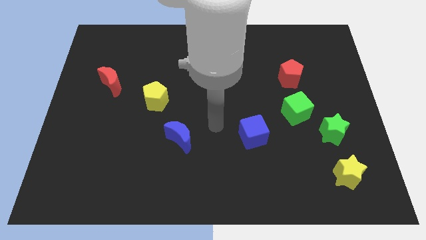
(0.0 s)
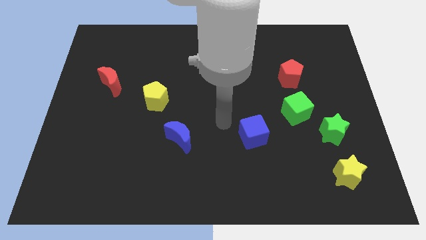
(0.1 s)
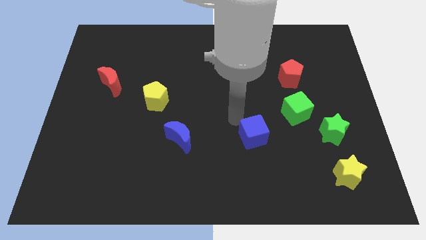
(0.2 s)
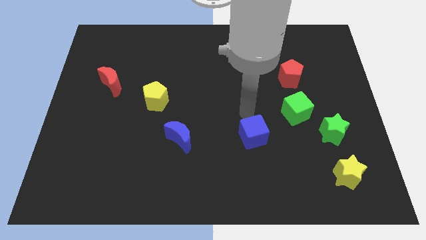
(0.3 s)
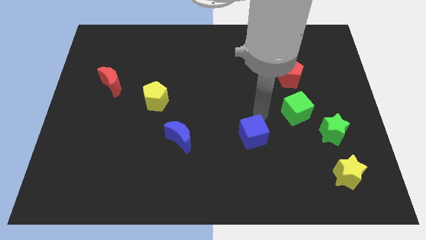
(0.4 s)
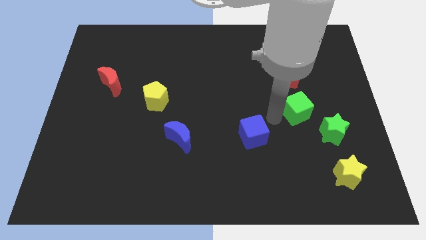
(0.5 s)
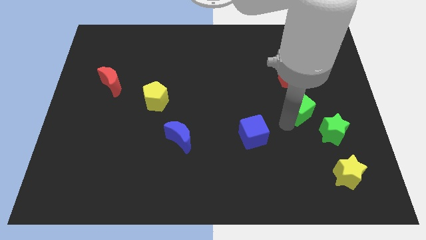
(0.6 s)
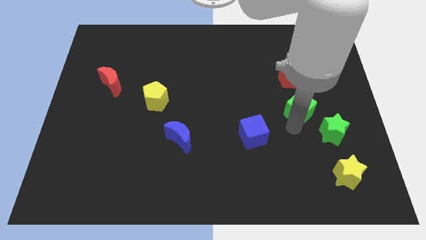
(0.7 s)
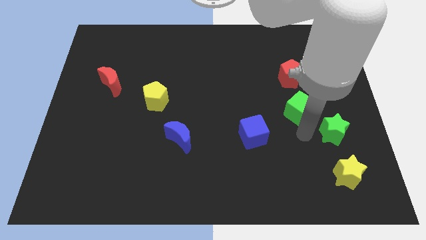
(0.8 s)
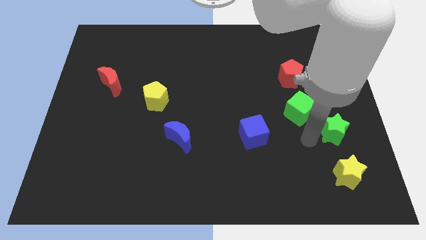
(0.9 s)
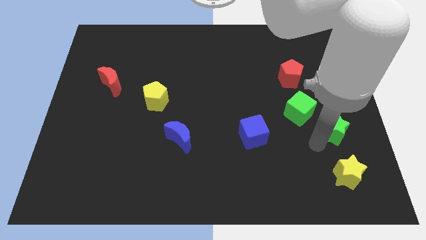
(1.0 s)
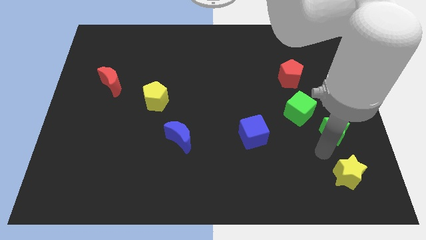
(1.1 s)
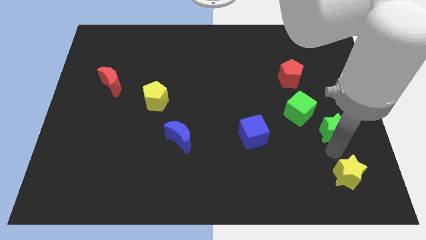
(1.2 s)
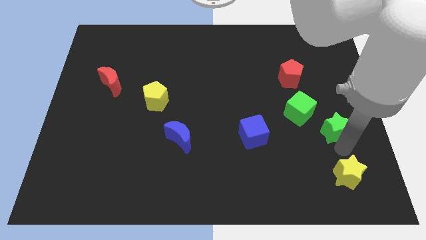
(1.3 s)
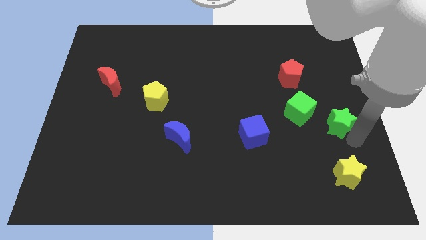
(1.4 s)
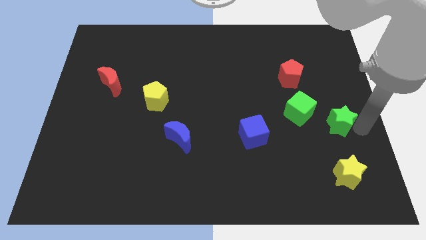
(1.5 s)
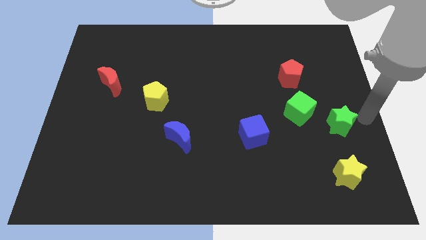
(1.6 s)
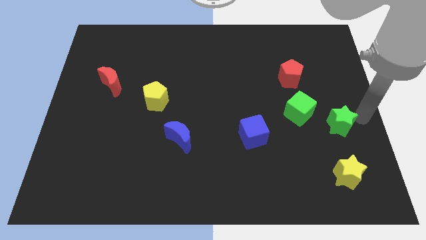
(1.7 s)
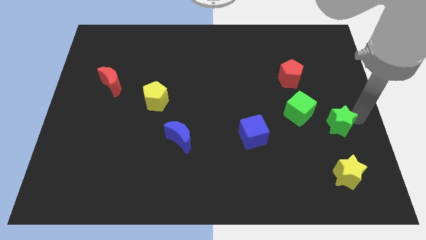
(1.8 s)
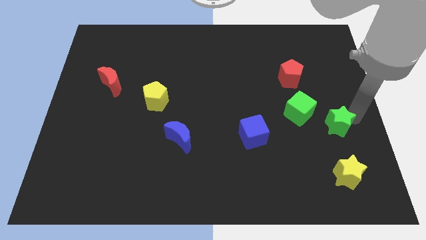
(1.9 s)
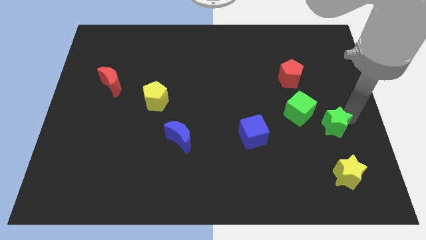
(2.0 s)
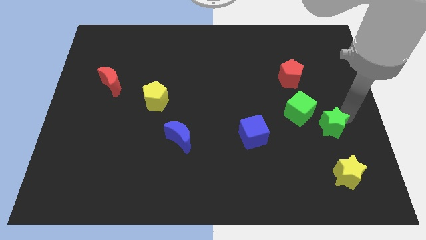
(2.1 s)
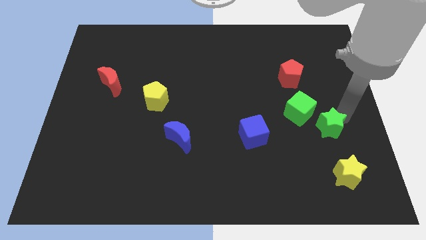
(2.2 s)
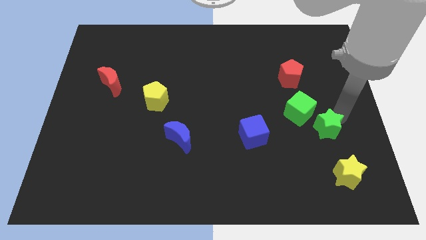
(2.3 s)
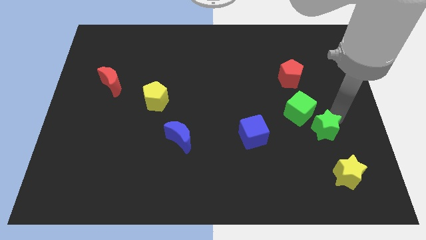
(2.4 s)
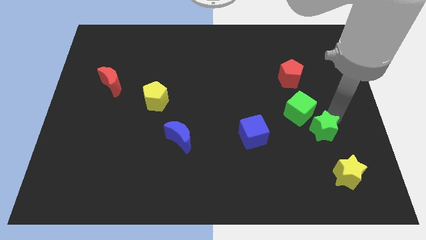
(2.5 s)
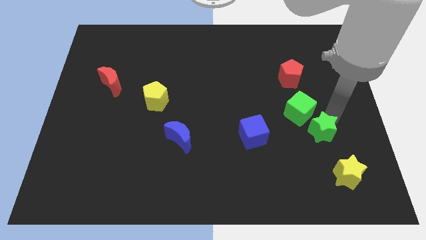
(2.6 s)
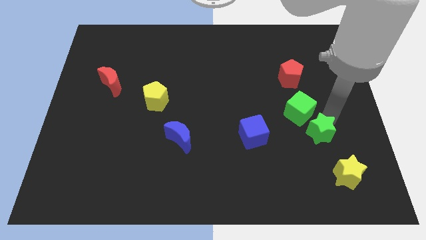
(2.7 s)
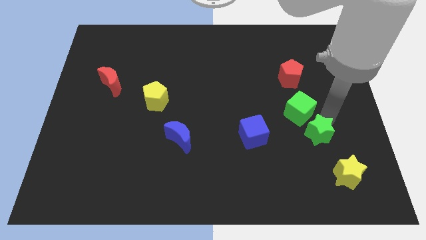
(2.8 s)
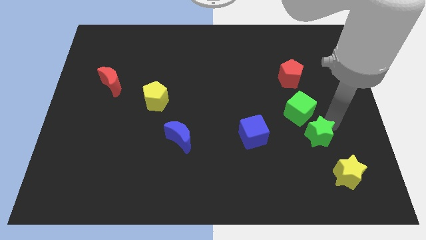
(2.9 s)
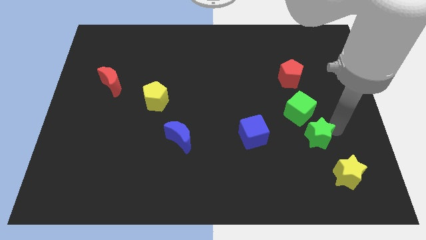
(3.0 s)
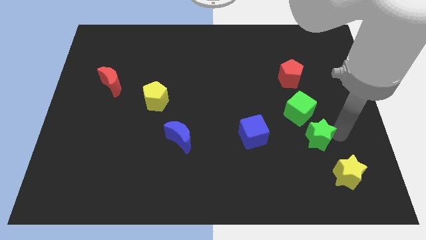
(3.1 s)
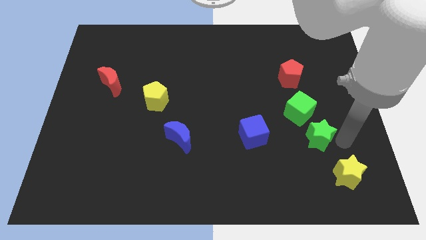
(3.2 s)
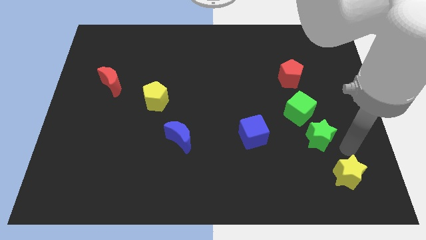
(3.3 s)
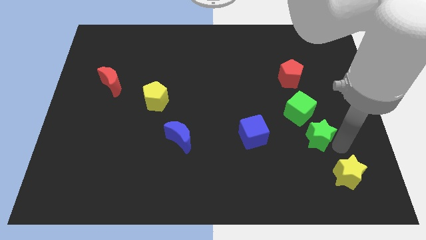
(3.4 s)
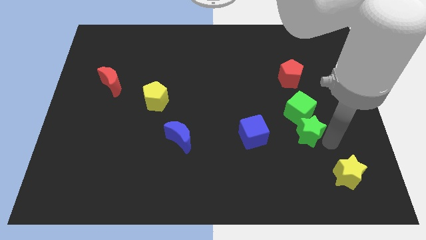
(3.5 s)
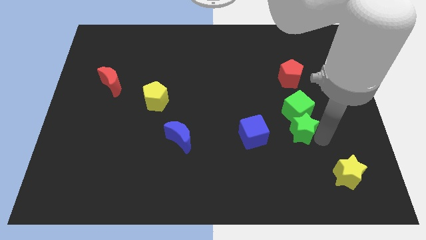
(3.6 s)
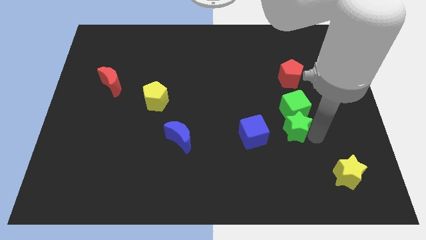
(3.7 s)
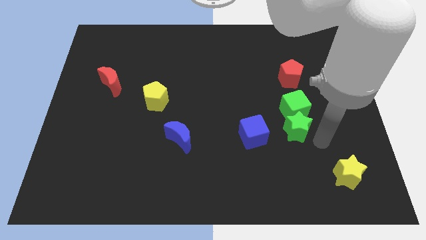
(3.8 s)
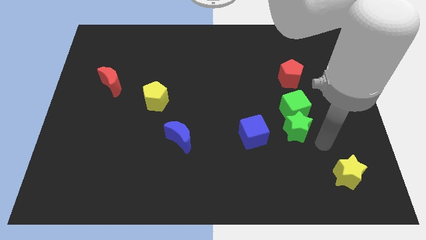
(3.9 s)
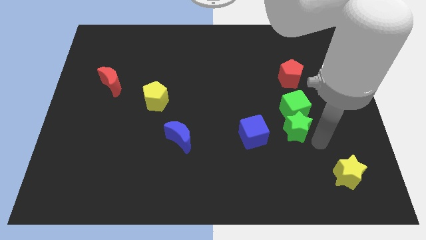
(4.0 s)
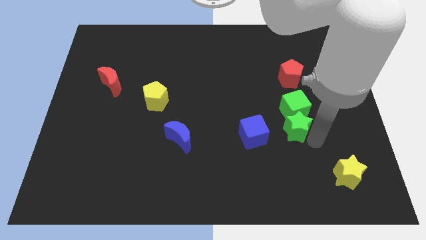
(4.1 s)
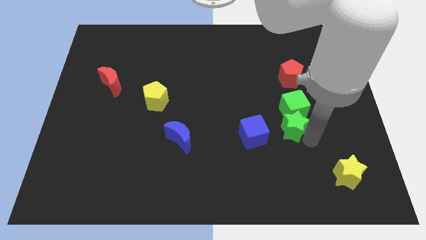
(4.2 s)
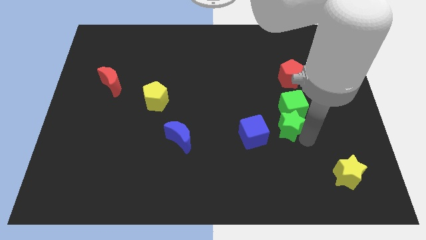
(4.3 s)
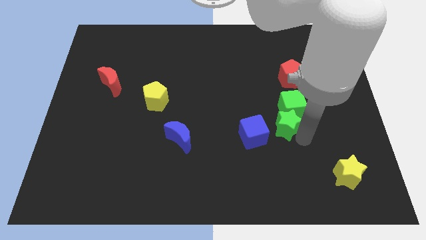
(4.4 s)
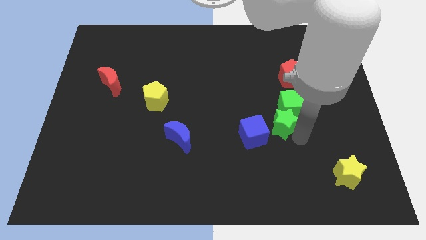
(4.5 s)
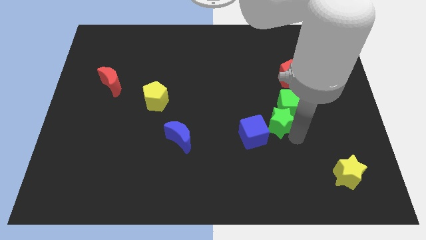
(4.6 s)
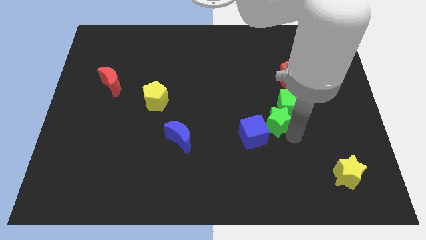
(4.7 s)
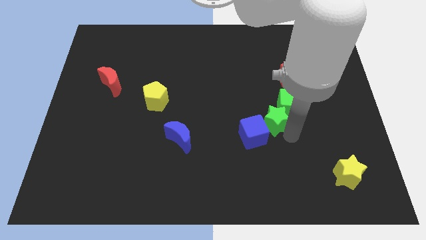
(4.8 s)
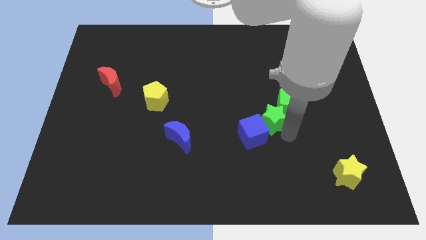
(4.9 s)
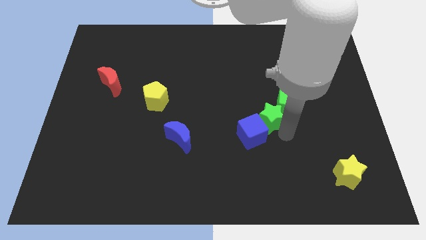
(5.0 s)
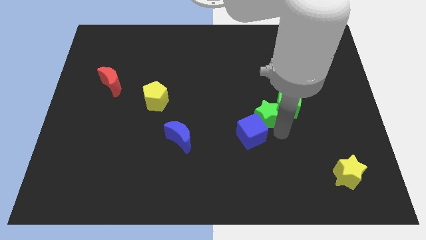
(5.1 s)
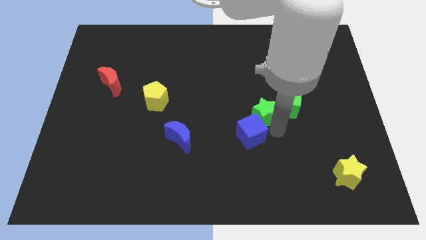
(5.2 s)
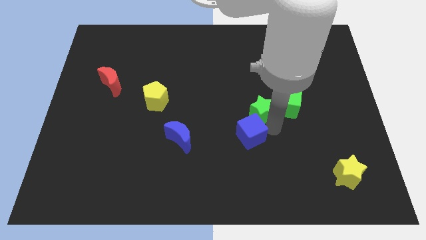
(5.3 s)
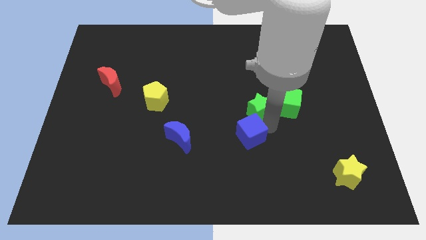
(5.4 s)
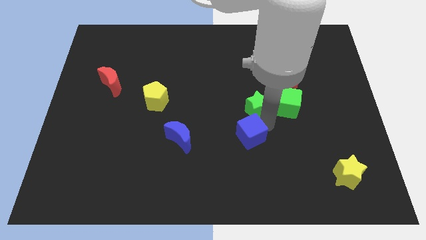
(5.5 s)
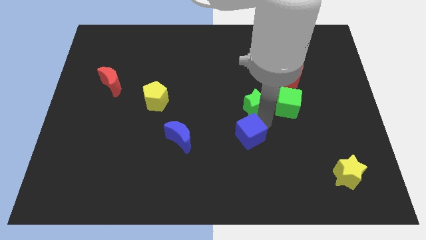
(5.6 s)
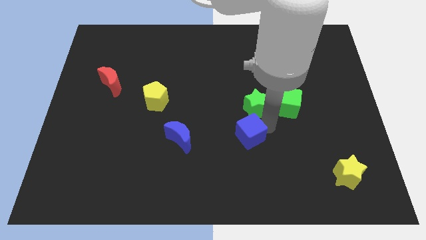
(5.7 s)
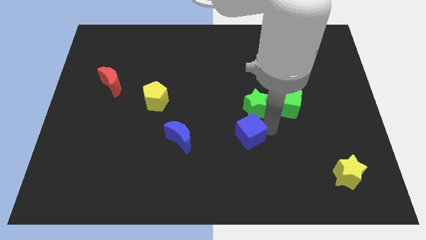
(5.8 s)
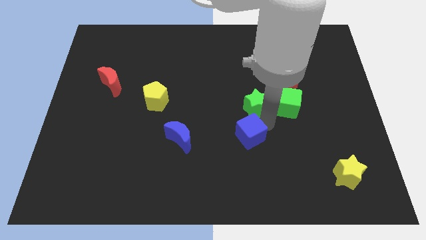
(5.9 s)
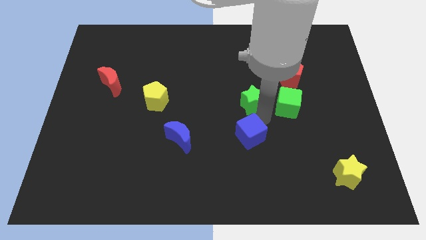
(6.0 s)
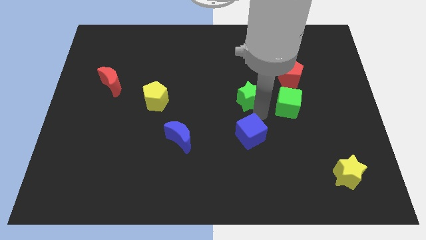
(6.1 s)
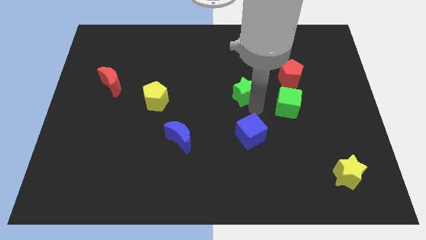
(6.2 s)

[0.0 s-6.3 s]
move the green star upwards and left diagonally

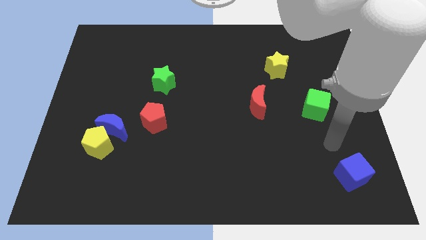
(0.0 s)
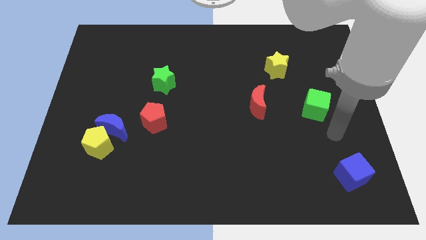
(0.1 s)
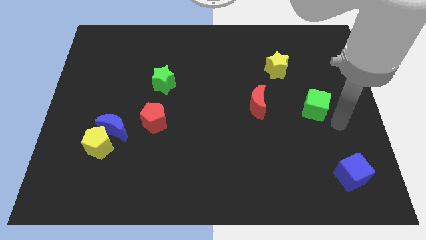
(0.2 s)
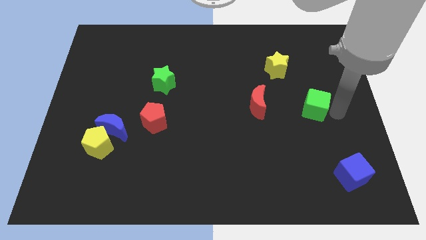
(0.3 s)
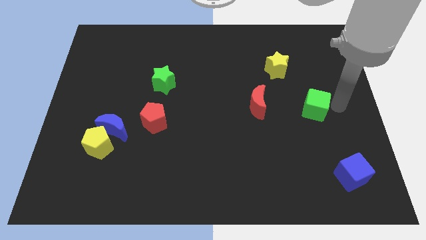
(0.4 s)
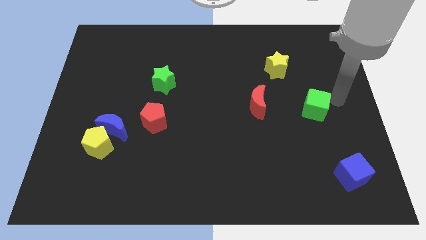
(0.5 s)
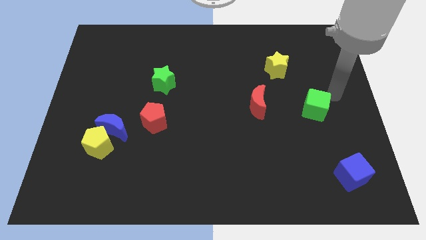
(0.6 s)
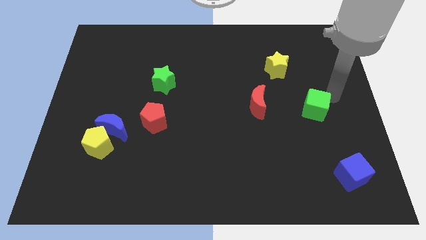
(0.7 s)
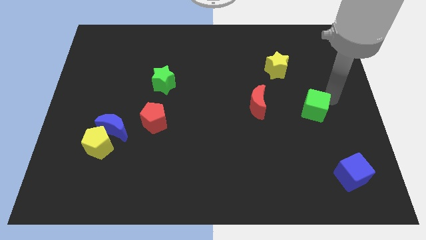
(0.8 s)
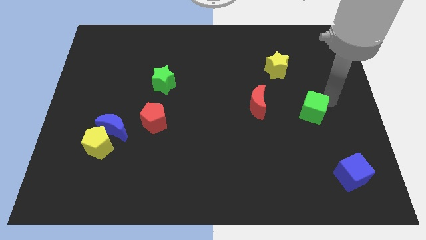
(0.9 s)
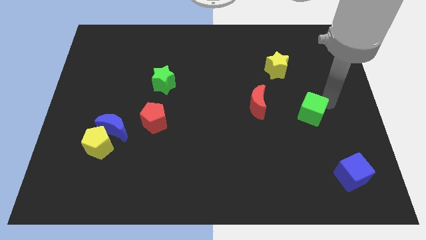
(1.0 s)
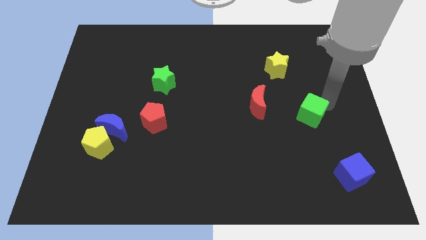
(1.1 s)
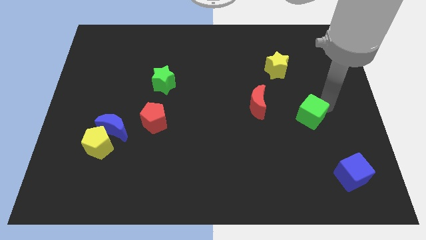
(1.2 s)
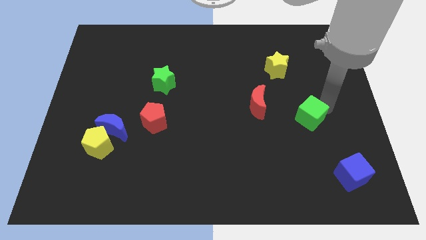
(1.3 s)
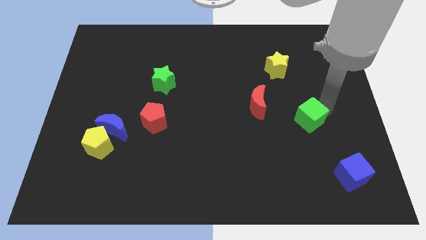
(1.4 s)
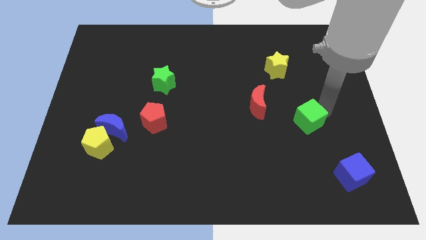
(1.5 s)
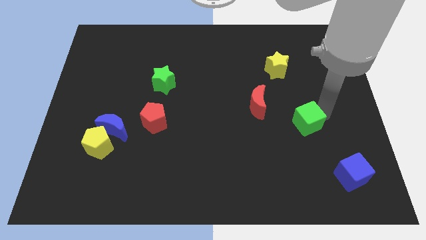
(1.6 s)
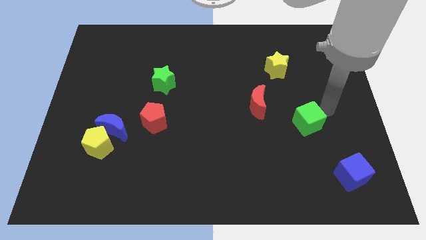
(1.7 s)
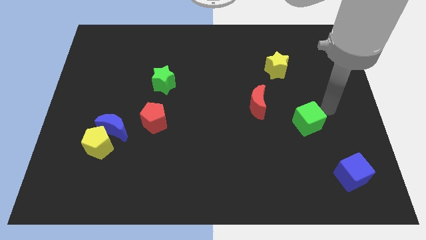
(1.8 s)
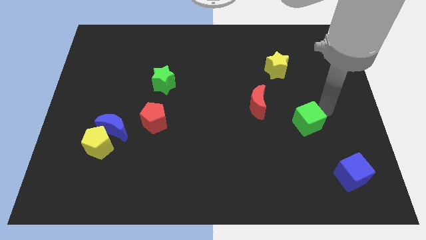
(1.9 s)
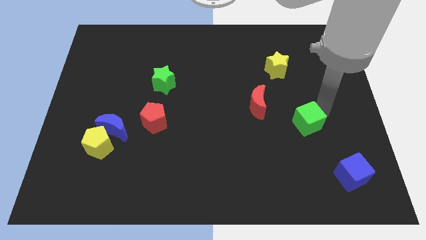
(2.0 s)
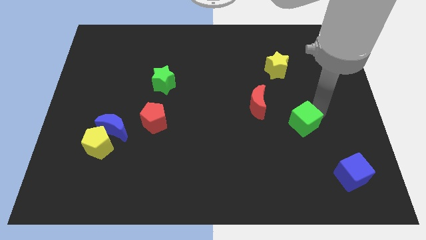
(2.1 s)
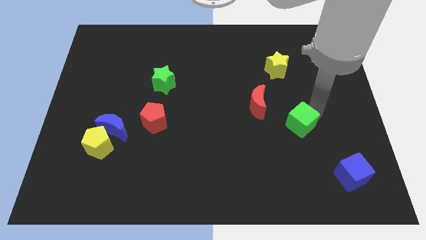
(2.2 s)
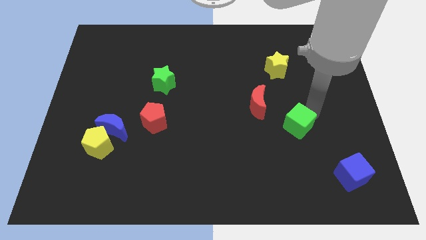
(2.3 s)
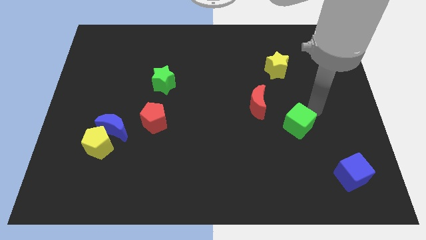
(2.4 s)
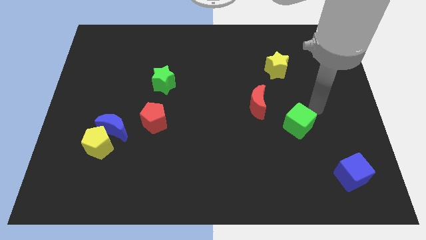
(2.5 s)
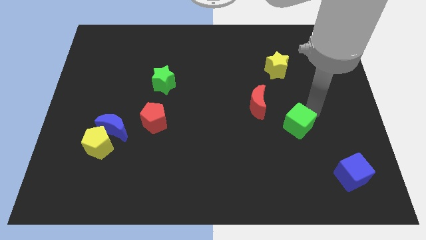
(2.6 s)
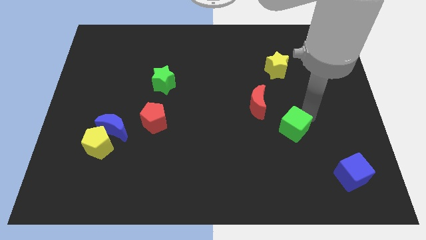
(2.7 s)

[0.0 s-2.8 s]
move the green cube down and to the left a little bit
